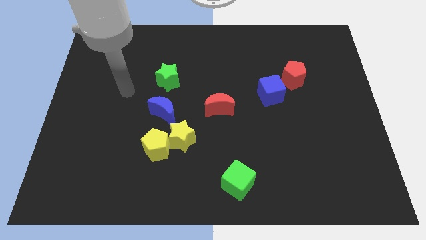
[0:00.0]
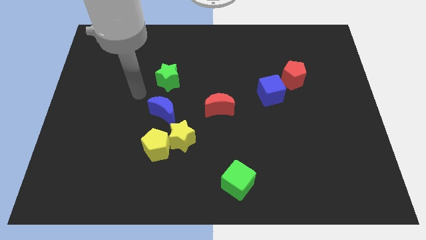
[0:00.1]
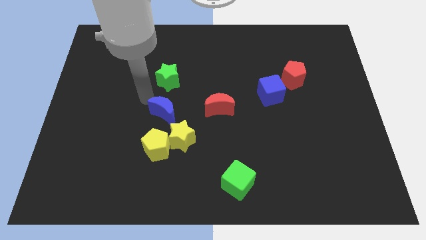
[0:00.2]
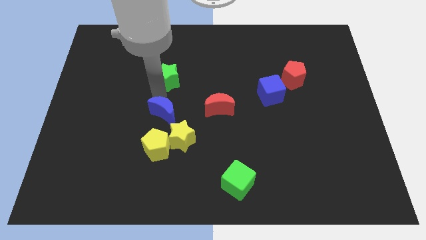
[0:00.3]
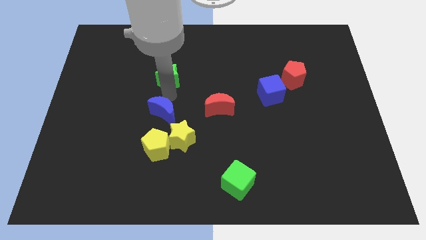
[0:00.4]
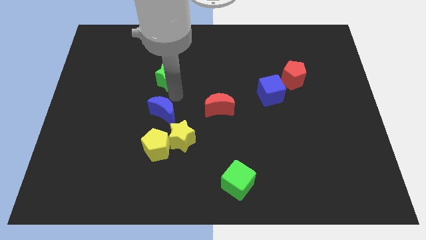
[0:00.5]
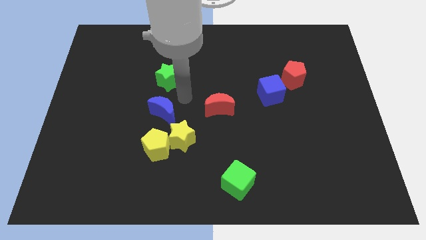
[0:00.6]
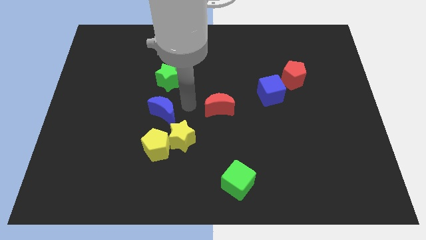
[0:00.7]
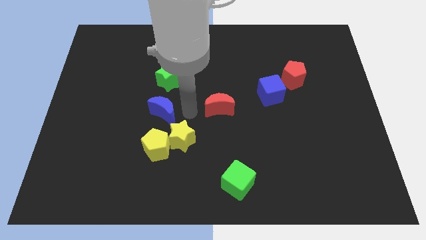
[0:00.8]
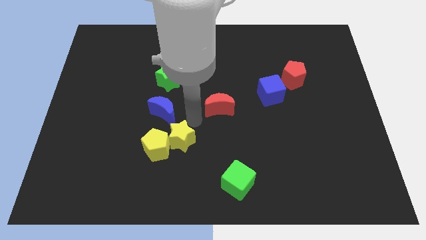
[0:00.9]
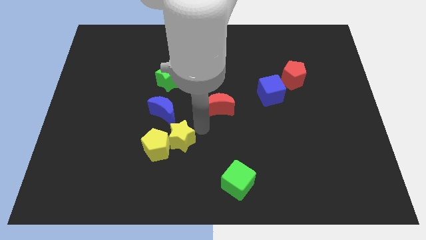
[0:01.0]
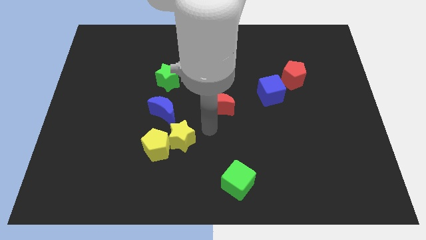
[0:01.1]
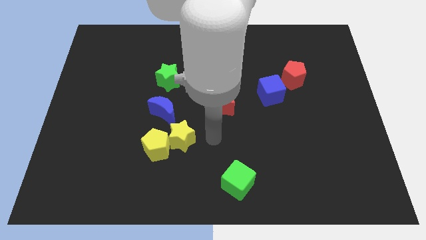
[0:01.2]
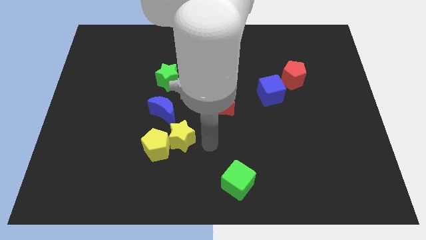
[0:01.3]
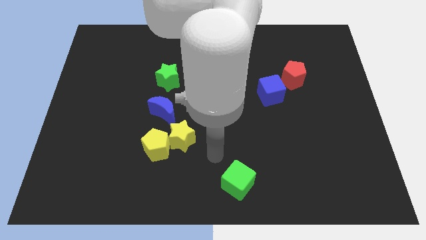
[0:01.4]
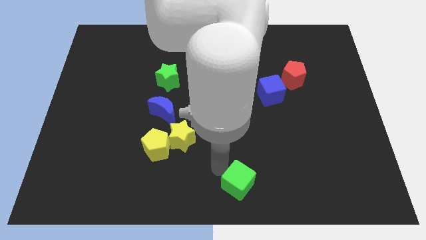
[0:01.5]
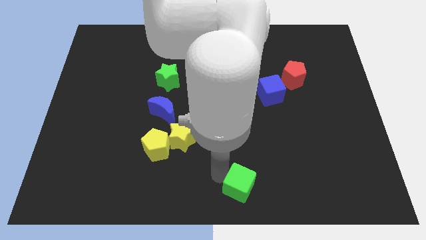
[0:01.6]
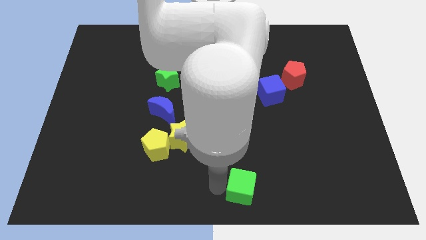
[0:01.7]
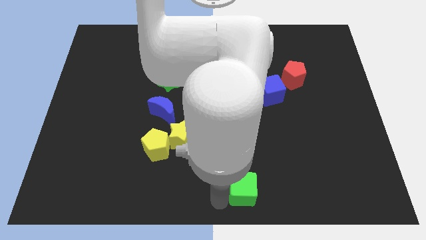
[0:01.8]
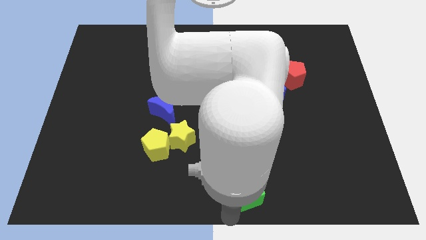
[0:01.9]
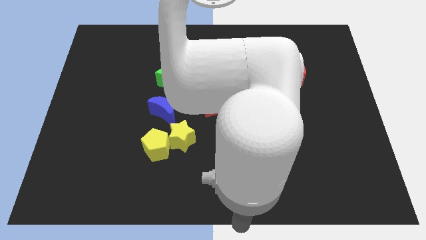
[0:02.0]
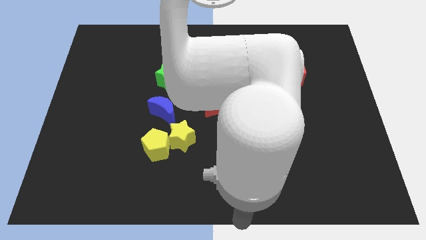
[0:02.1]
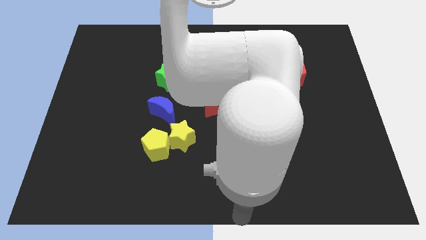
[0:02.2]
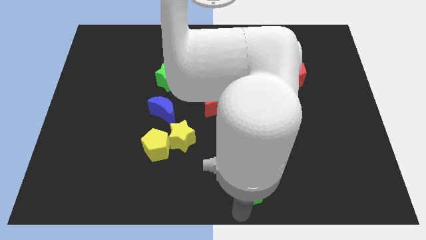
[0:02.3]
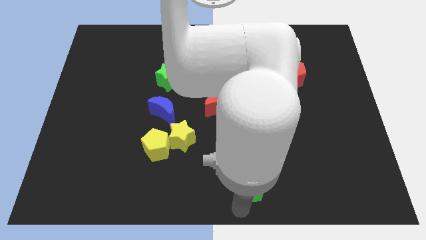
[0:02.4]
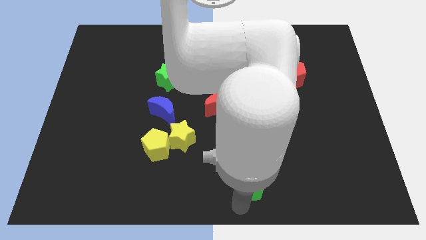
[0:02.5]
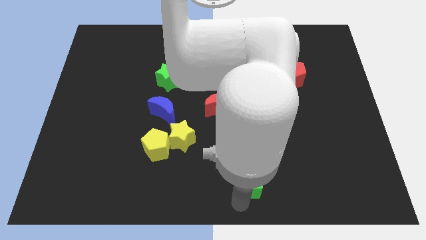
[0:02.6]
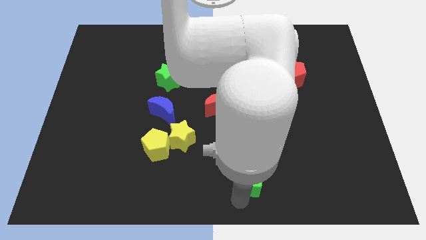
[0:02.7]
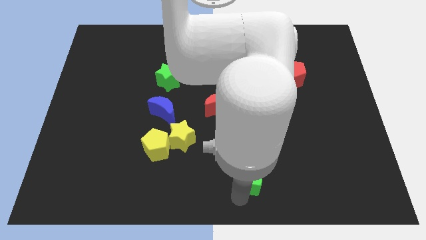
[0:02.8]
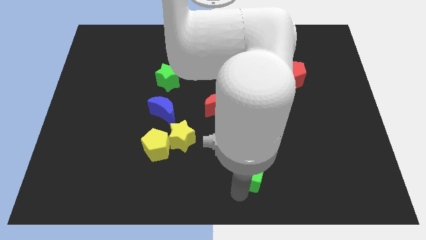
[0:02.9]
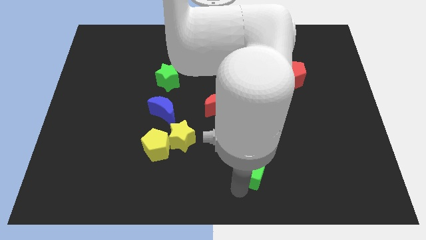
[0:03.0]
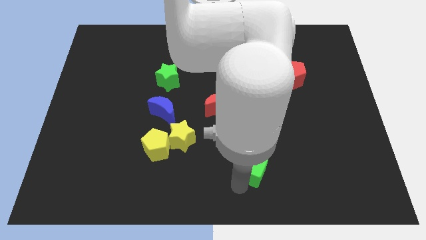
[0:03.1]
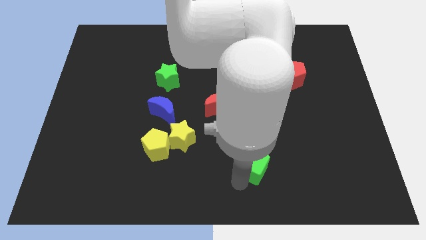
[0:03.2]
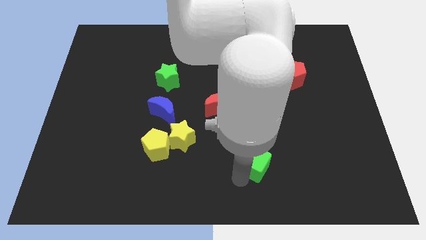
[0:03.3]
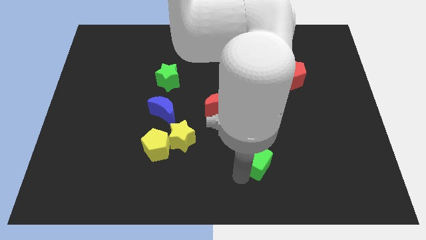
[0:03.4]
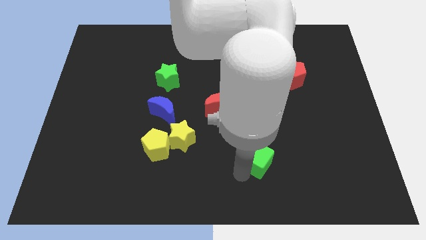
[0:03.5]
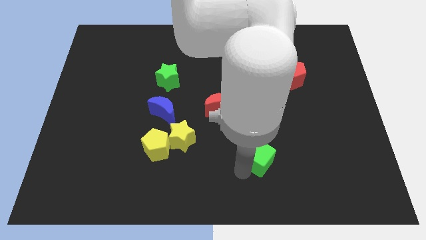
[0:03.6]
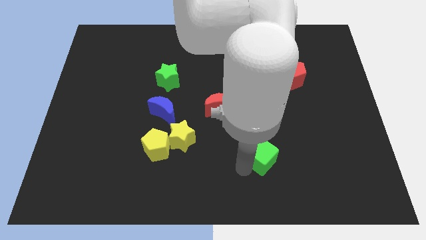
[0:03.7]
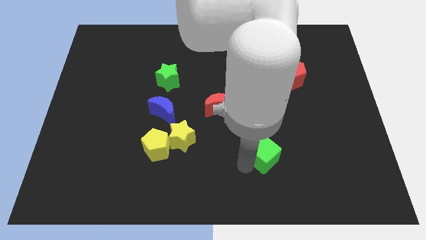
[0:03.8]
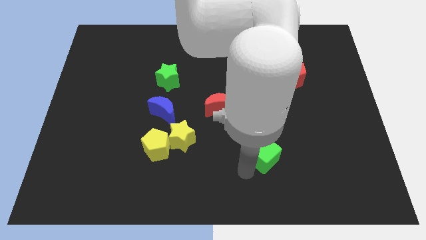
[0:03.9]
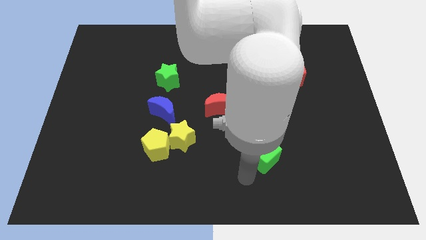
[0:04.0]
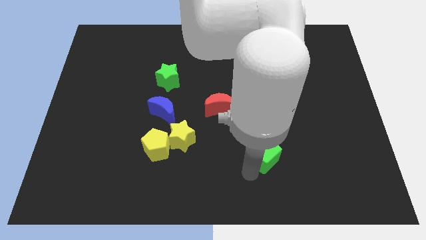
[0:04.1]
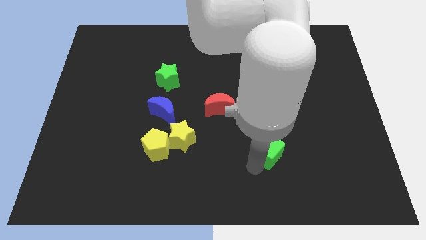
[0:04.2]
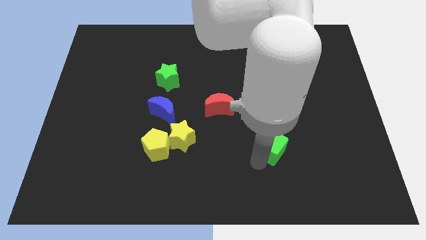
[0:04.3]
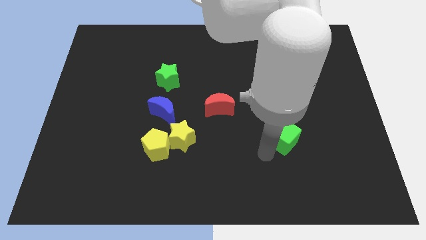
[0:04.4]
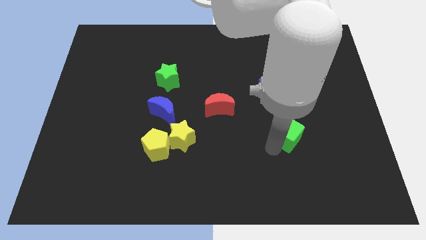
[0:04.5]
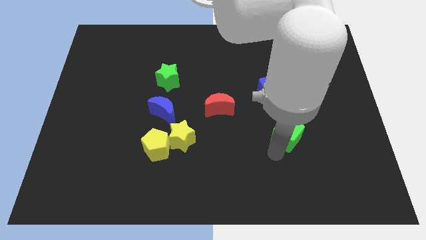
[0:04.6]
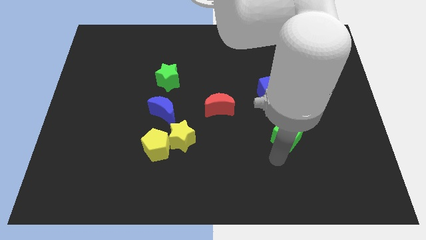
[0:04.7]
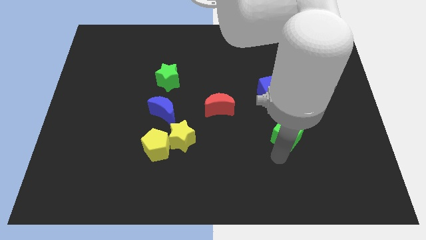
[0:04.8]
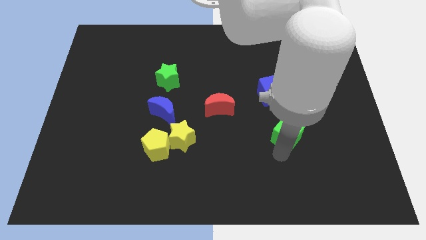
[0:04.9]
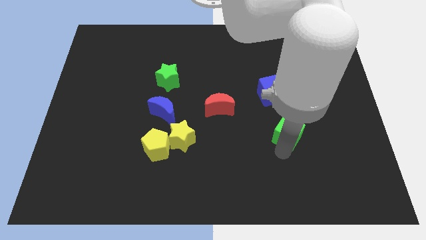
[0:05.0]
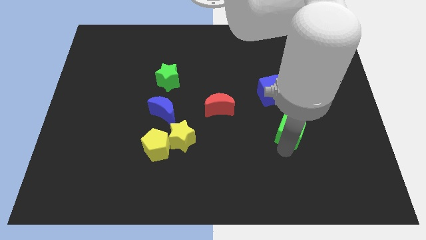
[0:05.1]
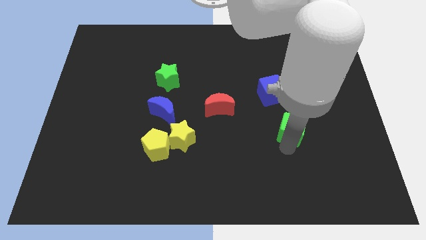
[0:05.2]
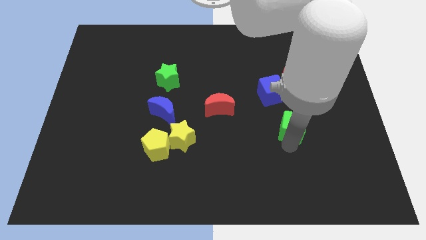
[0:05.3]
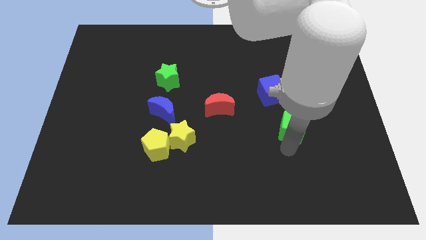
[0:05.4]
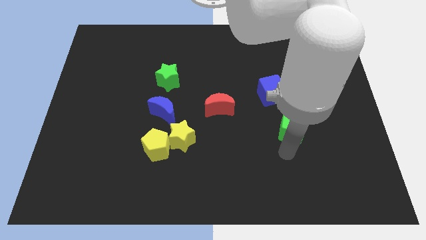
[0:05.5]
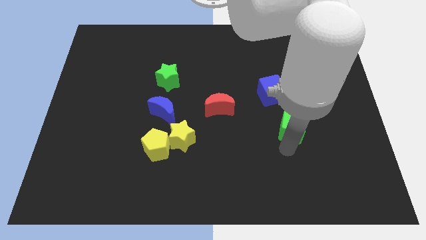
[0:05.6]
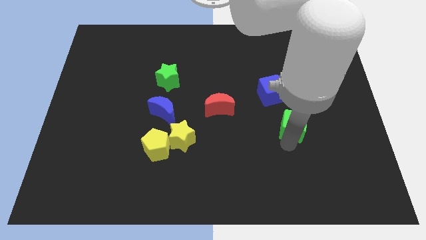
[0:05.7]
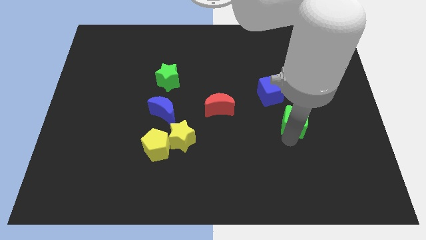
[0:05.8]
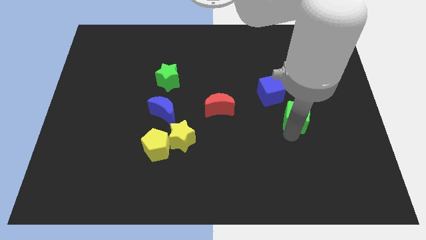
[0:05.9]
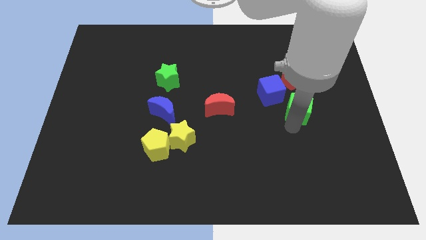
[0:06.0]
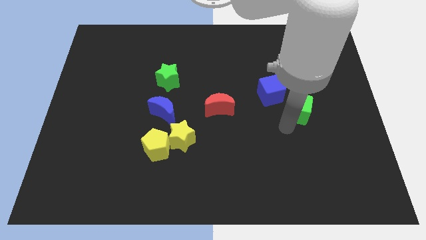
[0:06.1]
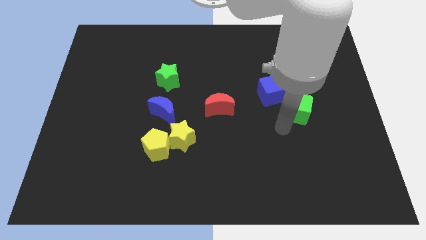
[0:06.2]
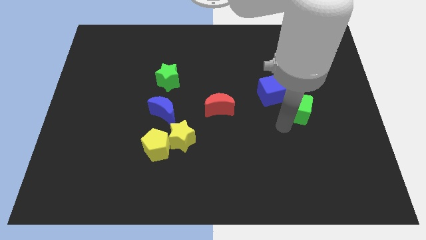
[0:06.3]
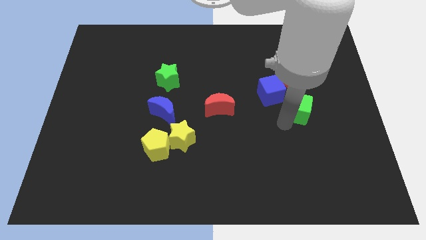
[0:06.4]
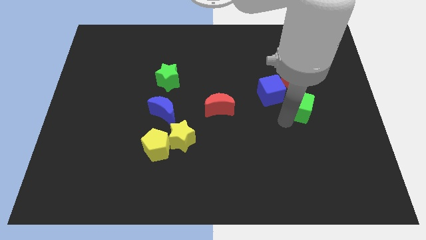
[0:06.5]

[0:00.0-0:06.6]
push the green cube to the right of the blue cube

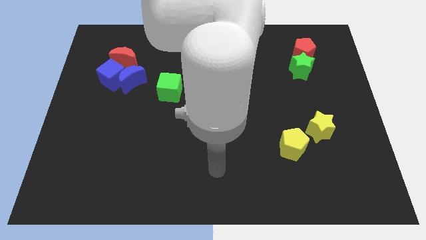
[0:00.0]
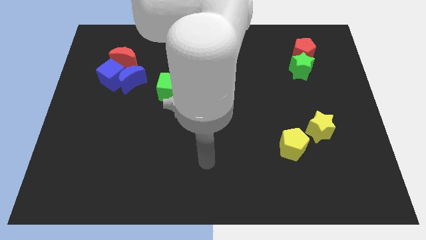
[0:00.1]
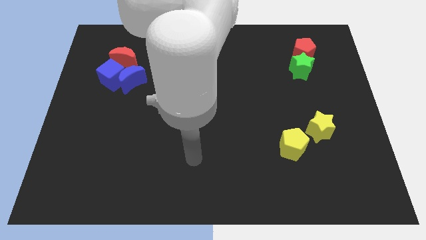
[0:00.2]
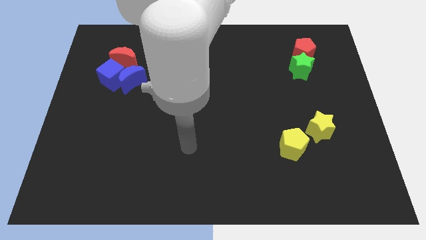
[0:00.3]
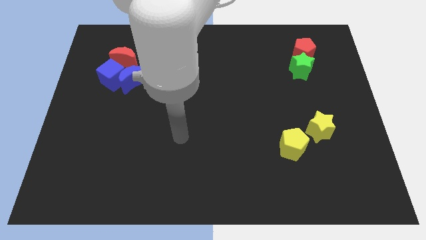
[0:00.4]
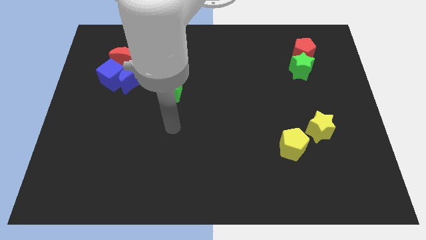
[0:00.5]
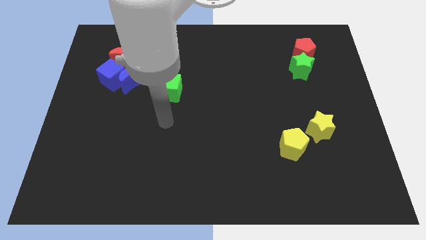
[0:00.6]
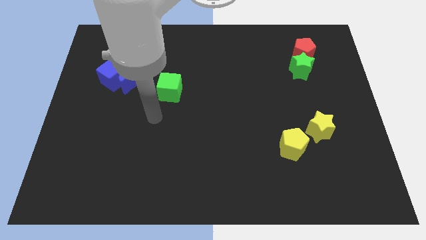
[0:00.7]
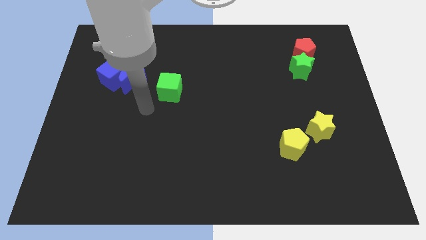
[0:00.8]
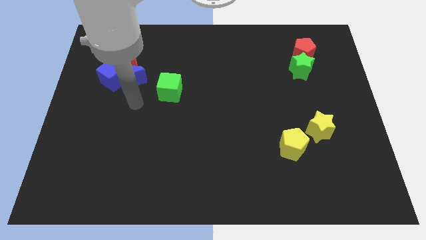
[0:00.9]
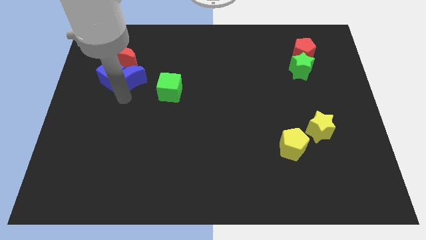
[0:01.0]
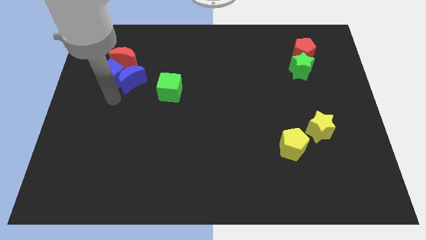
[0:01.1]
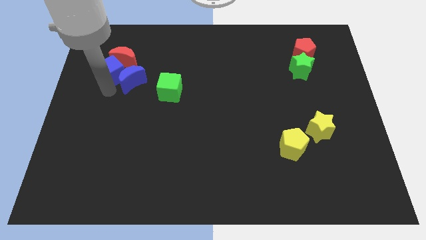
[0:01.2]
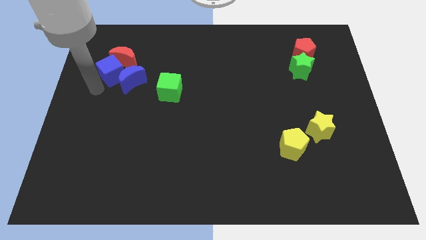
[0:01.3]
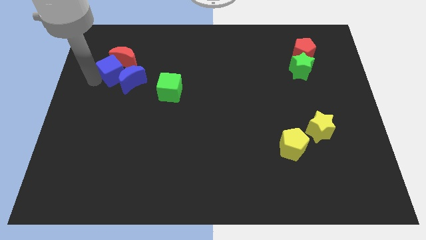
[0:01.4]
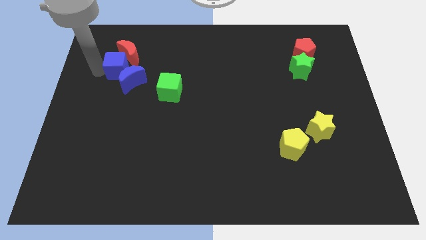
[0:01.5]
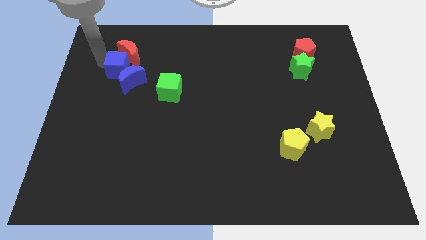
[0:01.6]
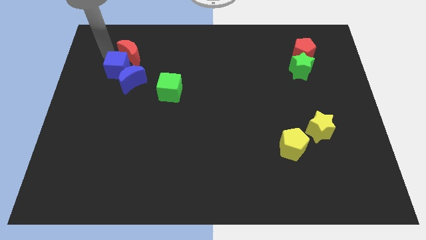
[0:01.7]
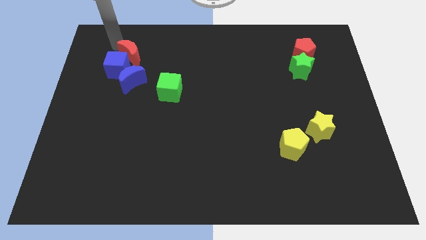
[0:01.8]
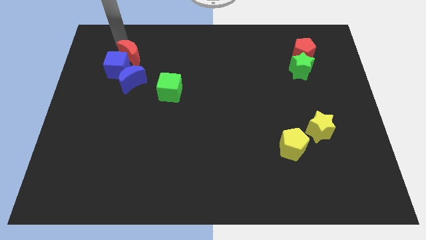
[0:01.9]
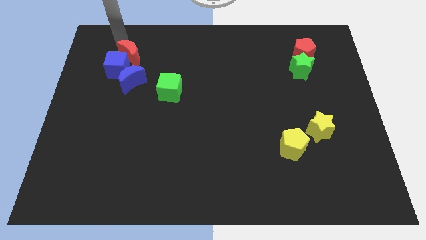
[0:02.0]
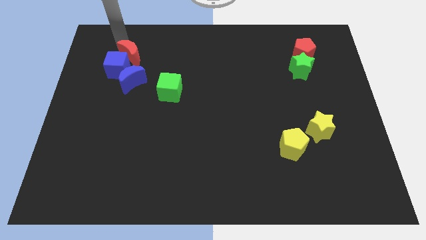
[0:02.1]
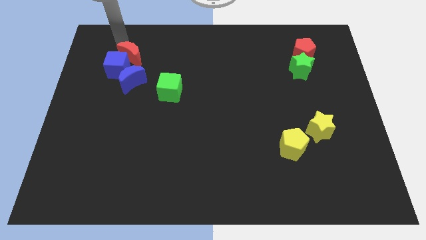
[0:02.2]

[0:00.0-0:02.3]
push the red moon just right of the blue cube
